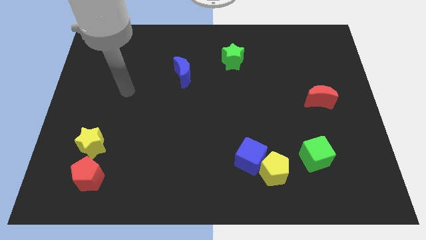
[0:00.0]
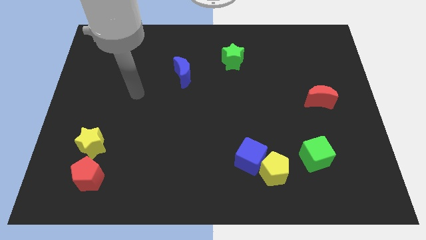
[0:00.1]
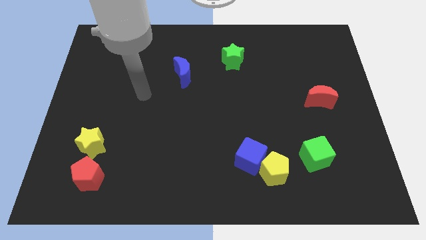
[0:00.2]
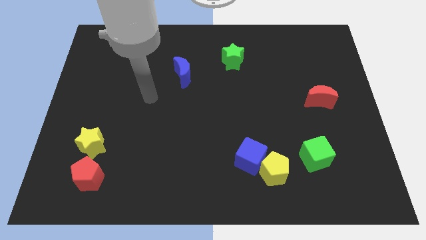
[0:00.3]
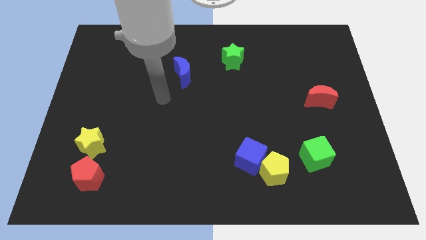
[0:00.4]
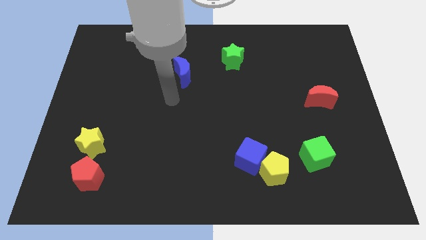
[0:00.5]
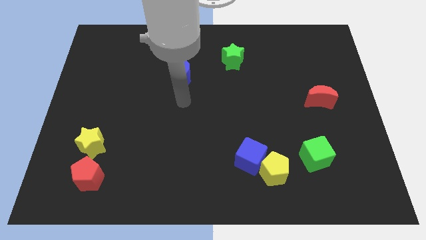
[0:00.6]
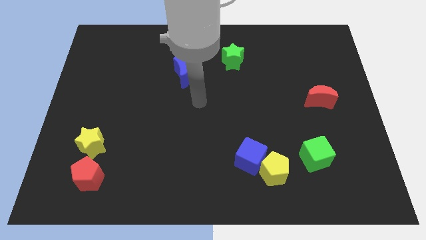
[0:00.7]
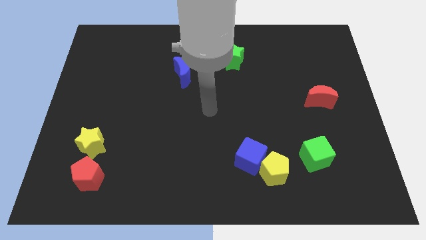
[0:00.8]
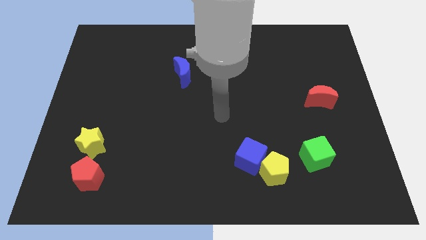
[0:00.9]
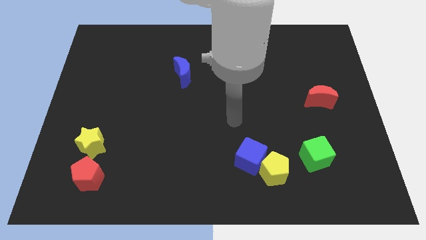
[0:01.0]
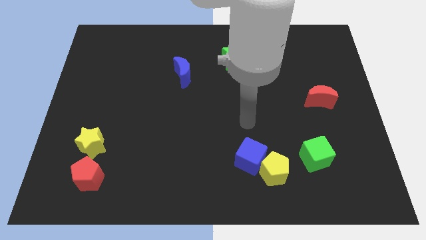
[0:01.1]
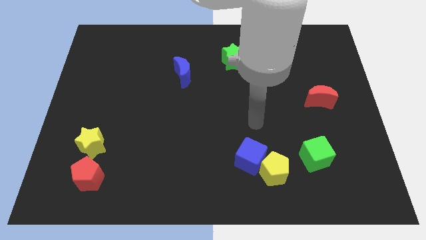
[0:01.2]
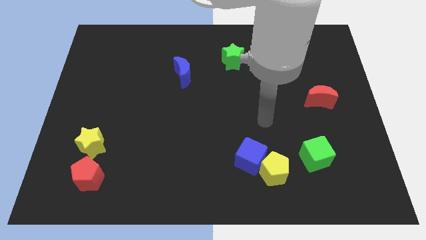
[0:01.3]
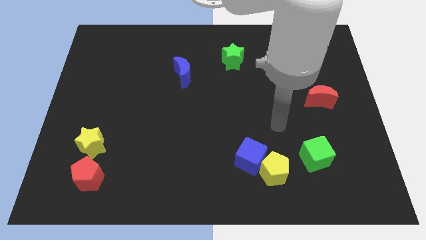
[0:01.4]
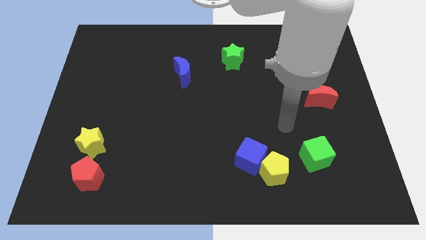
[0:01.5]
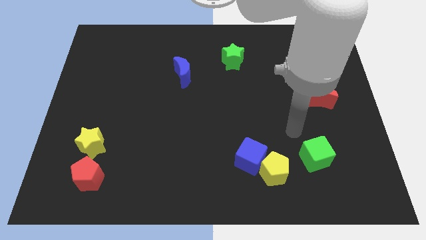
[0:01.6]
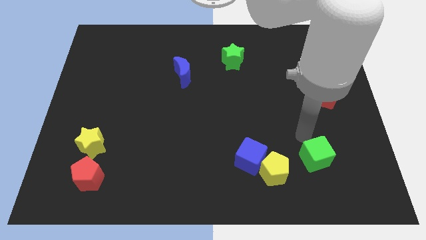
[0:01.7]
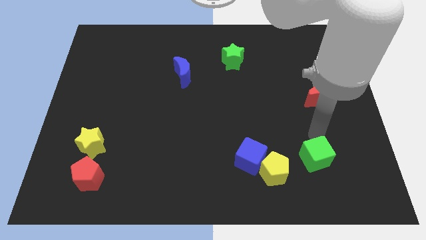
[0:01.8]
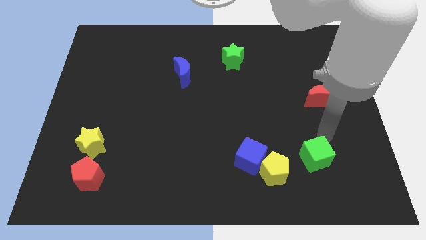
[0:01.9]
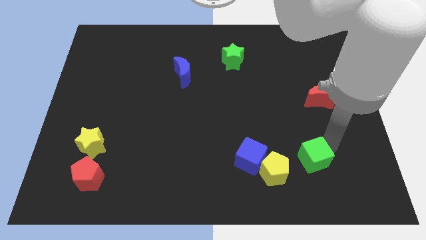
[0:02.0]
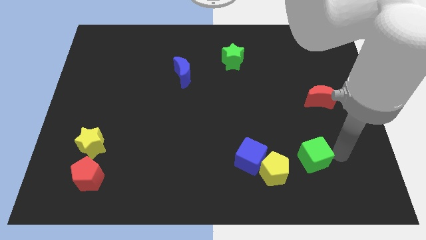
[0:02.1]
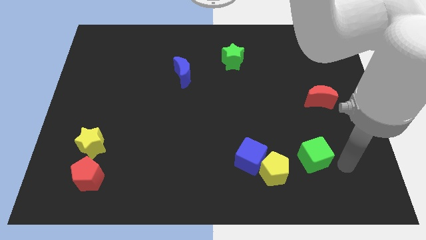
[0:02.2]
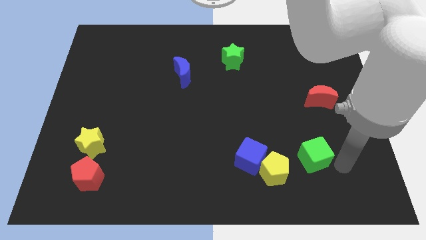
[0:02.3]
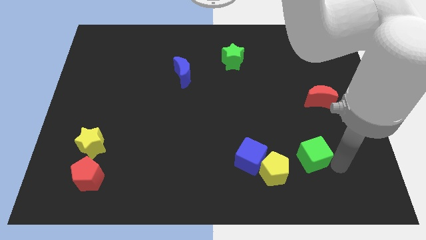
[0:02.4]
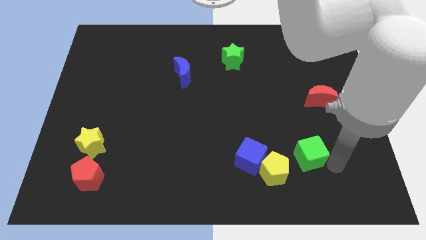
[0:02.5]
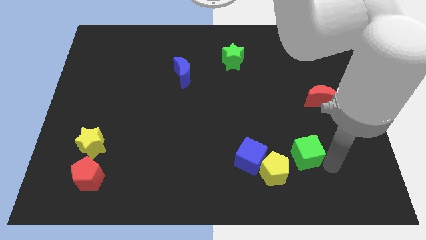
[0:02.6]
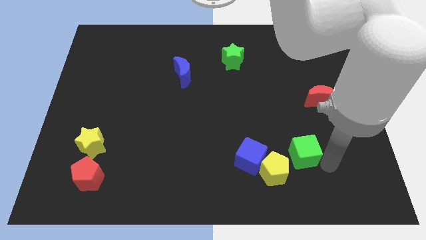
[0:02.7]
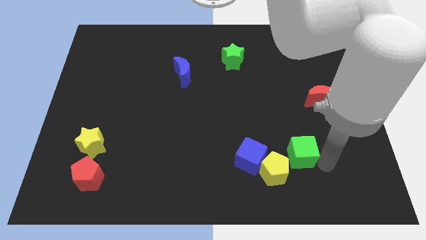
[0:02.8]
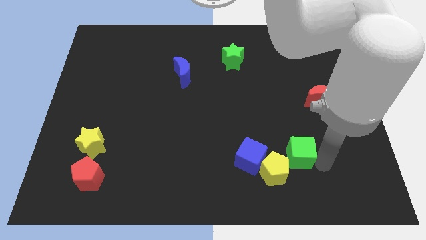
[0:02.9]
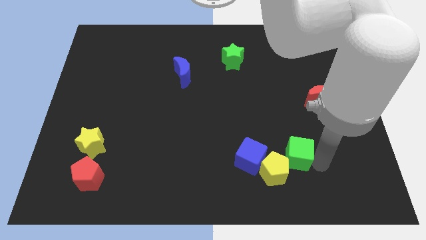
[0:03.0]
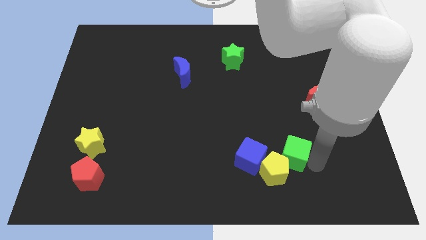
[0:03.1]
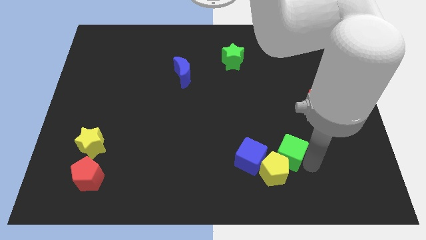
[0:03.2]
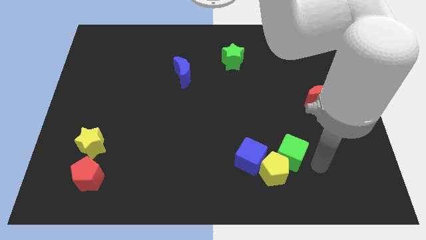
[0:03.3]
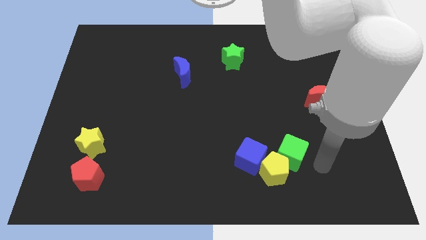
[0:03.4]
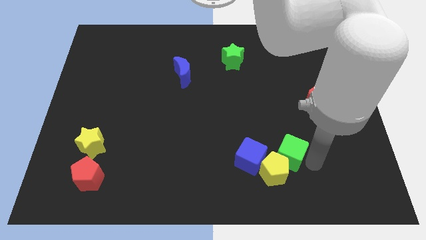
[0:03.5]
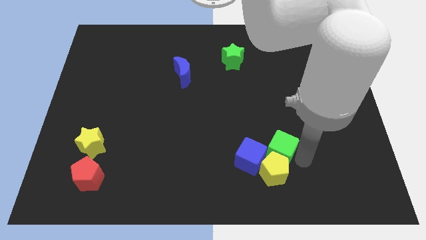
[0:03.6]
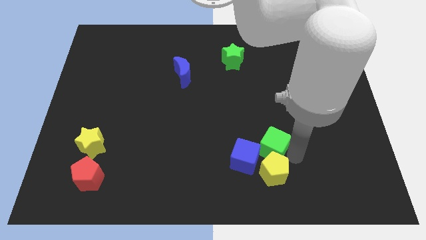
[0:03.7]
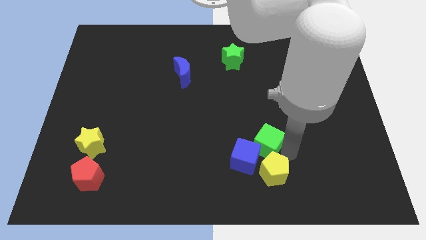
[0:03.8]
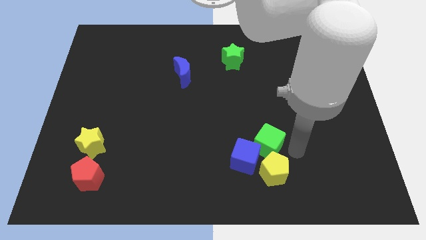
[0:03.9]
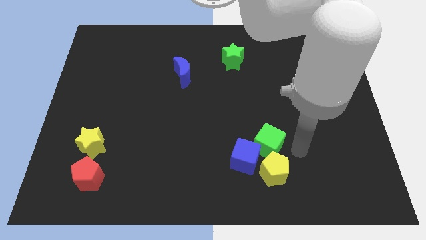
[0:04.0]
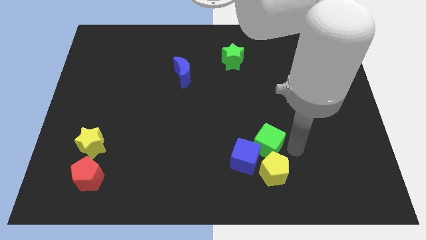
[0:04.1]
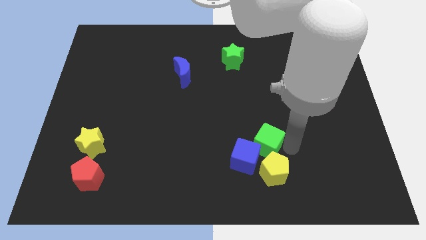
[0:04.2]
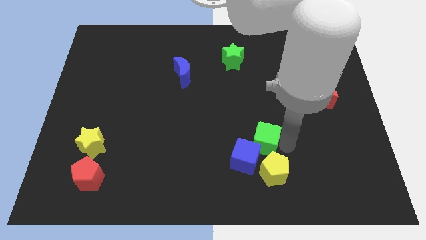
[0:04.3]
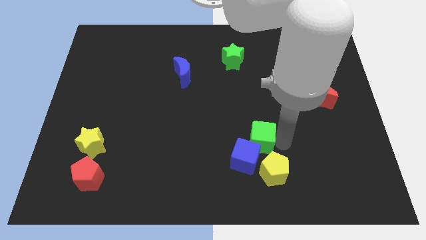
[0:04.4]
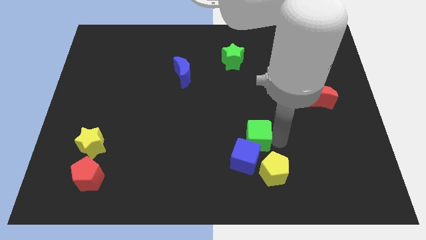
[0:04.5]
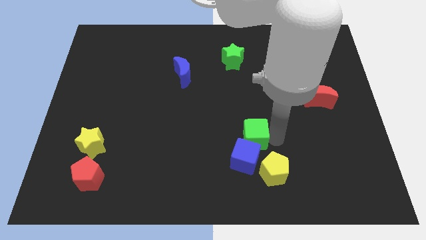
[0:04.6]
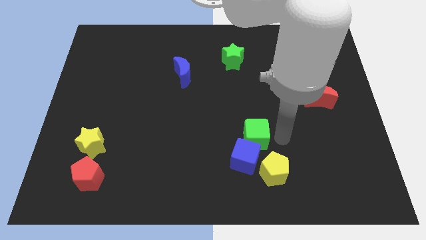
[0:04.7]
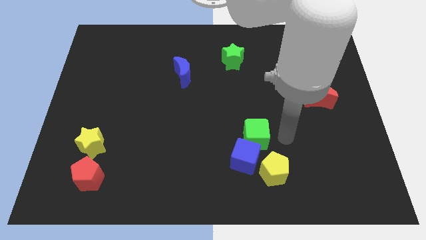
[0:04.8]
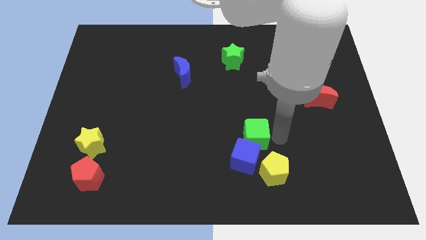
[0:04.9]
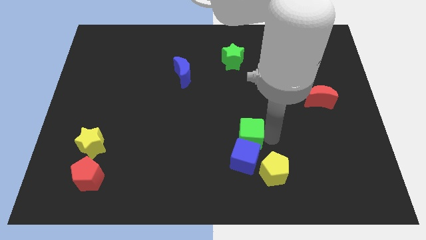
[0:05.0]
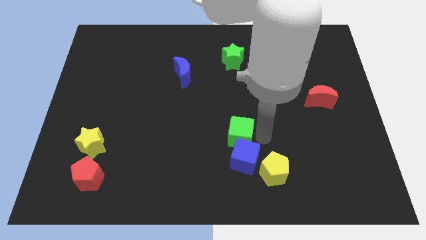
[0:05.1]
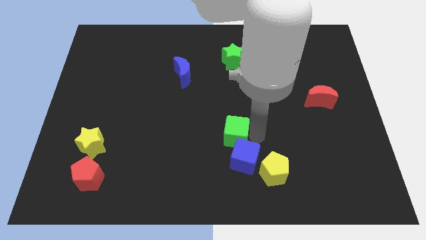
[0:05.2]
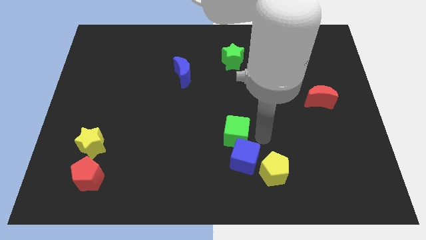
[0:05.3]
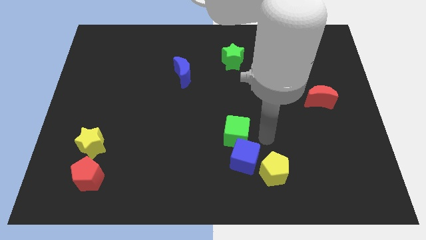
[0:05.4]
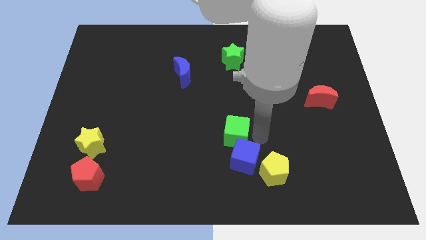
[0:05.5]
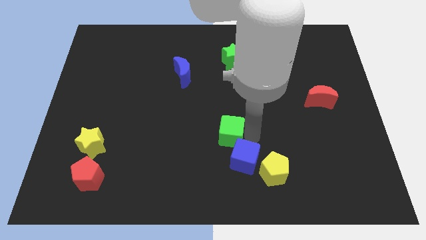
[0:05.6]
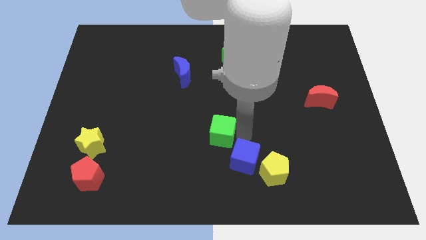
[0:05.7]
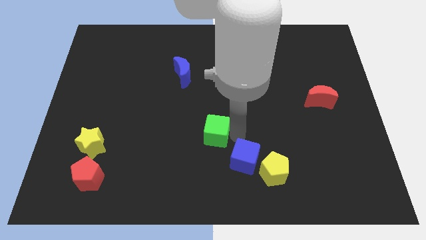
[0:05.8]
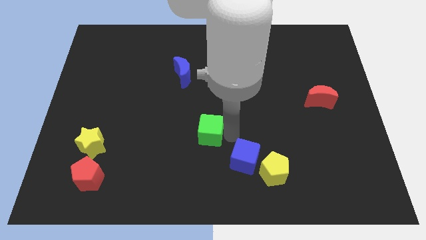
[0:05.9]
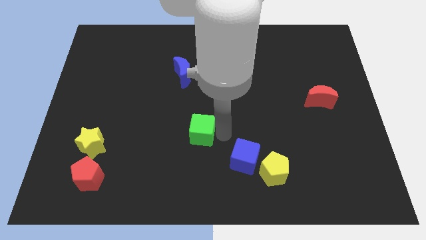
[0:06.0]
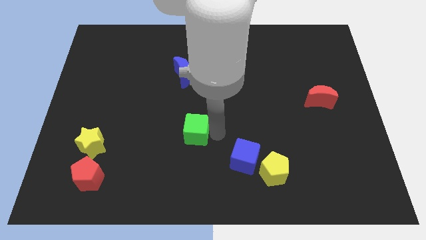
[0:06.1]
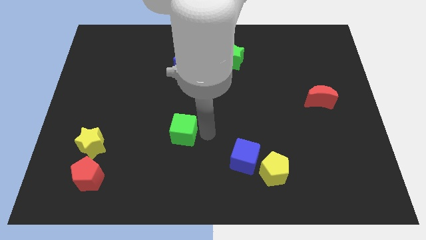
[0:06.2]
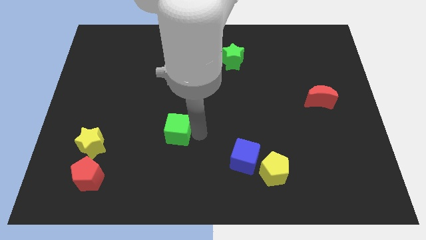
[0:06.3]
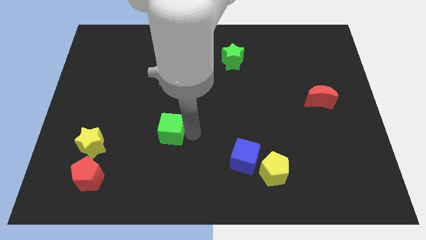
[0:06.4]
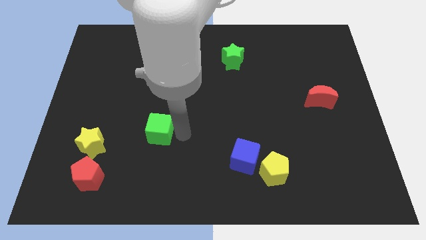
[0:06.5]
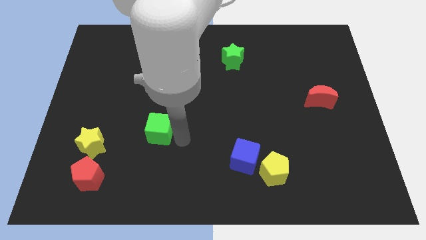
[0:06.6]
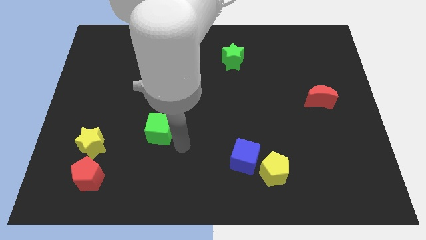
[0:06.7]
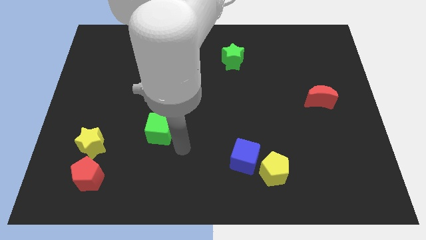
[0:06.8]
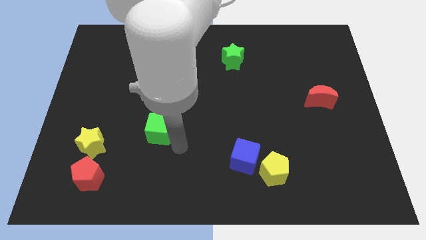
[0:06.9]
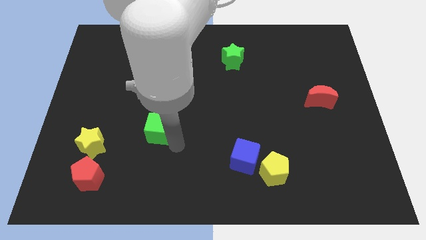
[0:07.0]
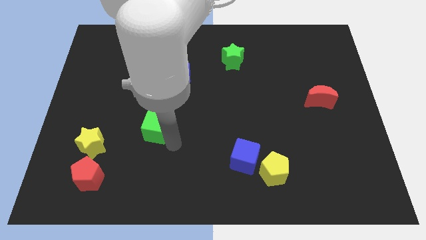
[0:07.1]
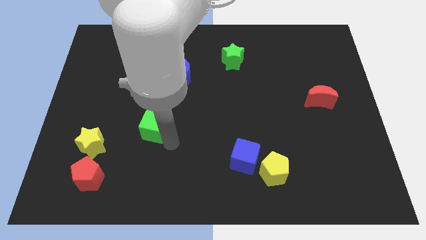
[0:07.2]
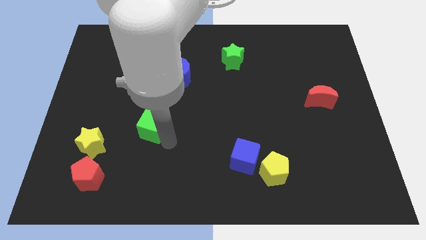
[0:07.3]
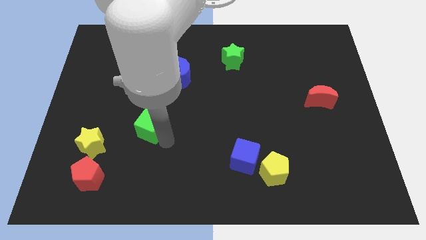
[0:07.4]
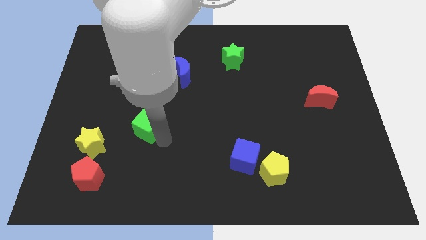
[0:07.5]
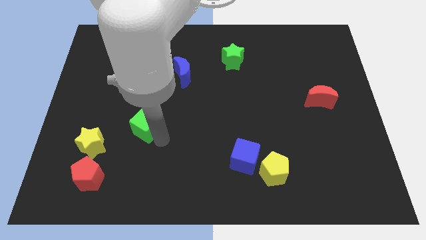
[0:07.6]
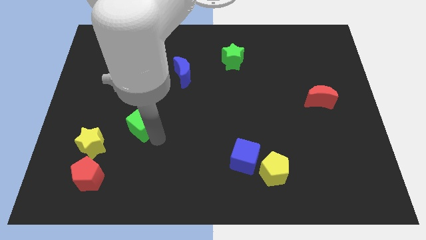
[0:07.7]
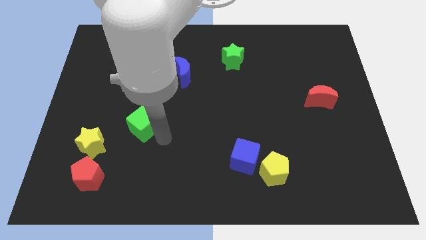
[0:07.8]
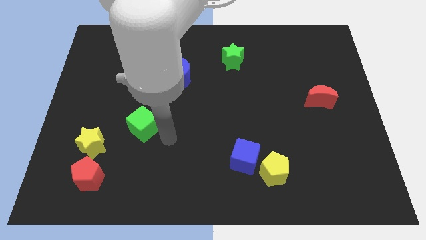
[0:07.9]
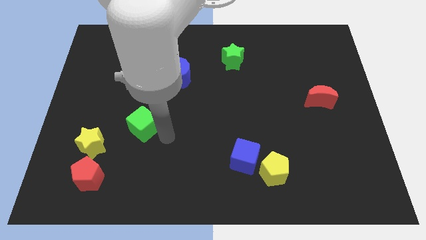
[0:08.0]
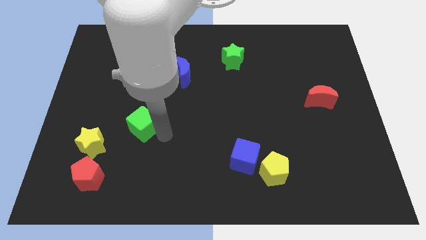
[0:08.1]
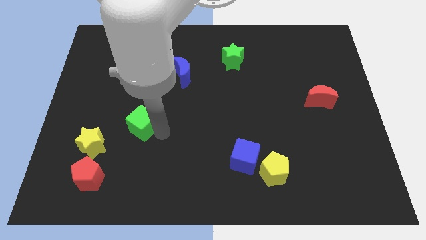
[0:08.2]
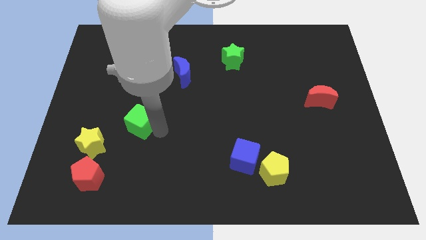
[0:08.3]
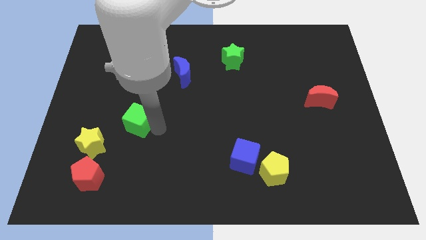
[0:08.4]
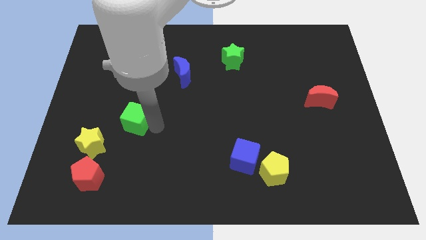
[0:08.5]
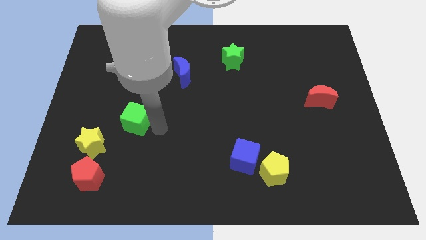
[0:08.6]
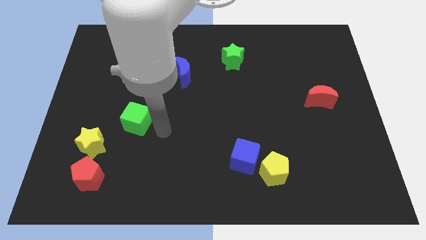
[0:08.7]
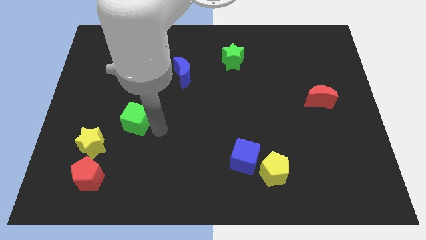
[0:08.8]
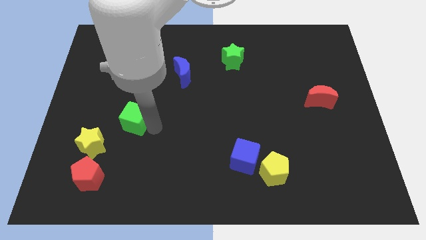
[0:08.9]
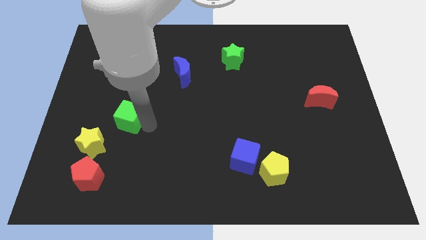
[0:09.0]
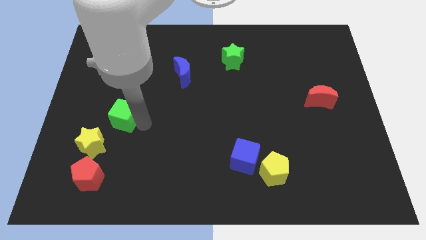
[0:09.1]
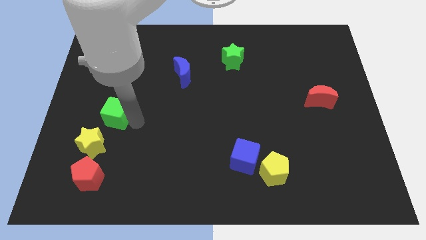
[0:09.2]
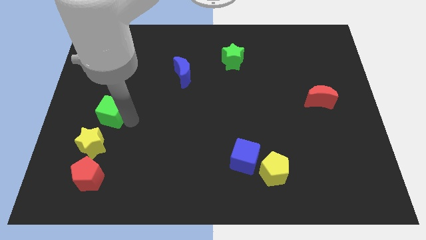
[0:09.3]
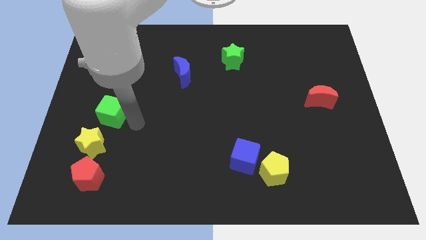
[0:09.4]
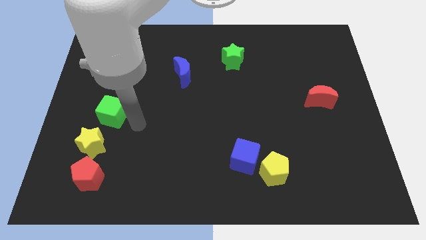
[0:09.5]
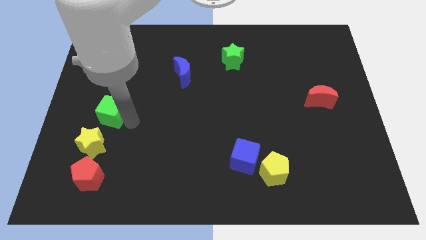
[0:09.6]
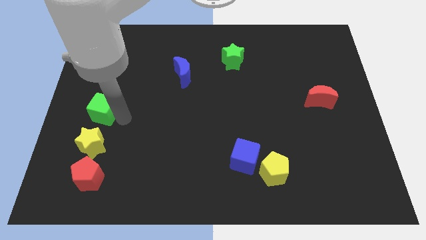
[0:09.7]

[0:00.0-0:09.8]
put the green cube to the center left
